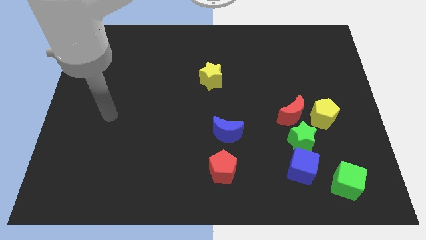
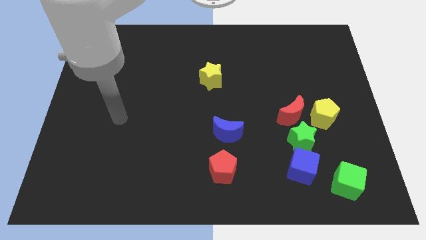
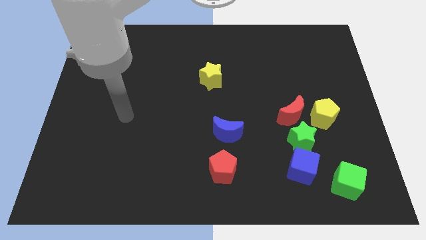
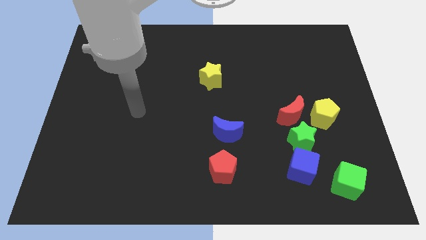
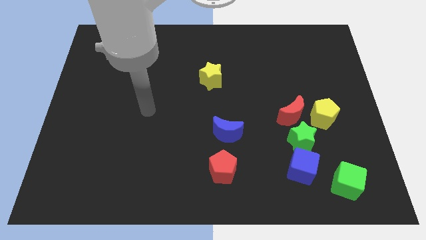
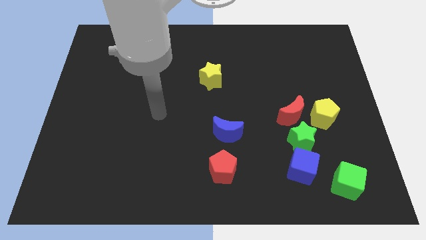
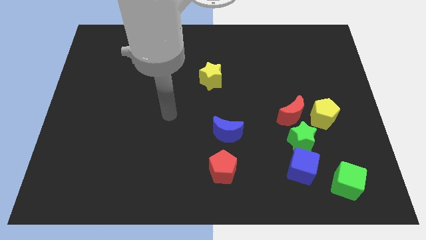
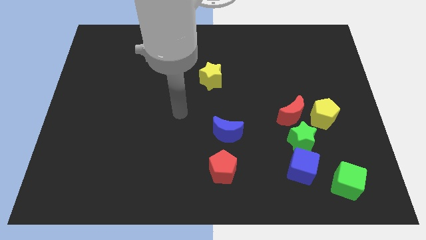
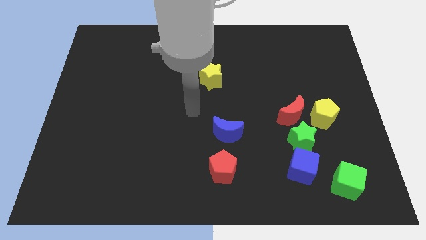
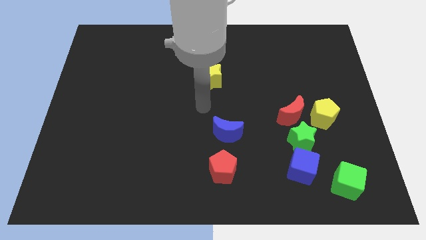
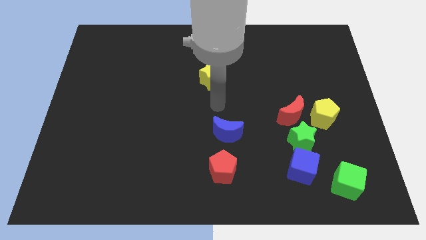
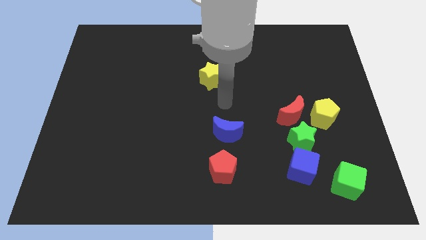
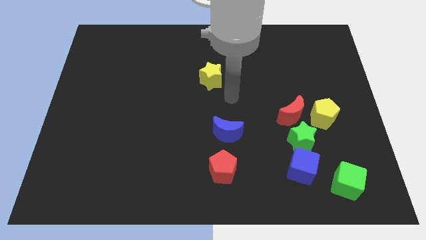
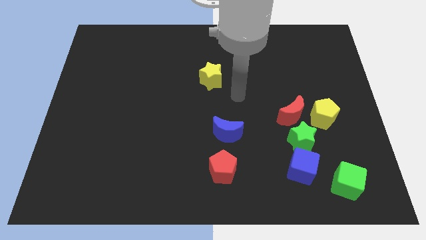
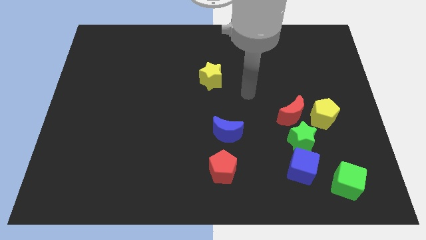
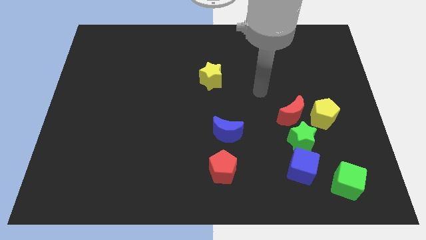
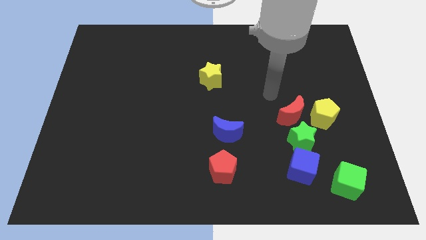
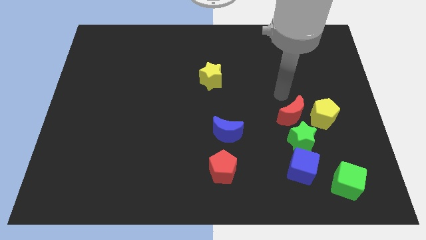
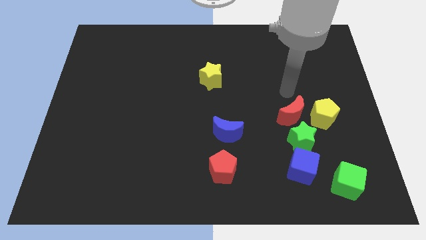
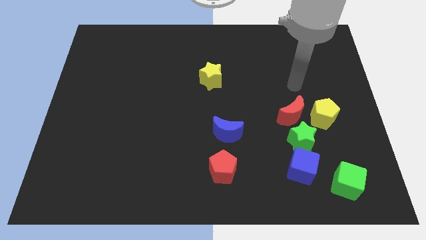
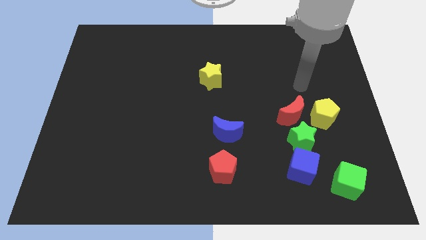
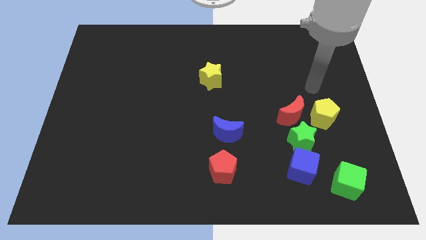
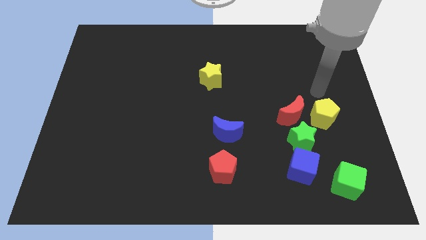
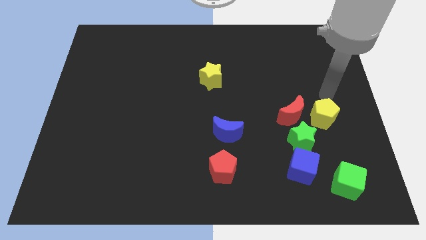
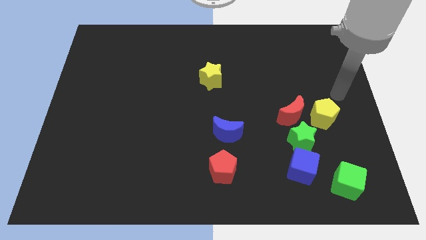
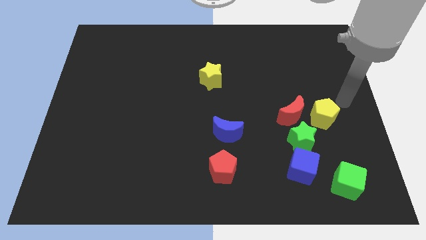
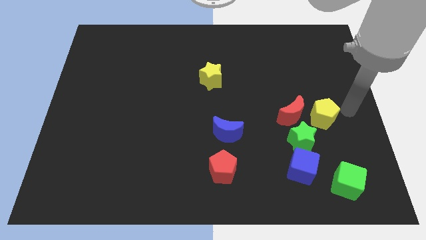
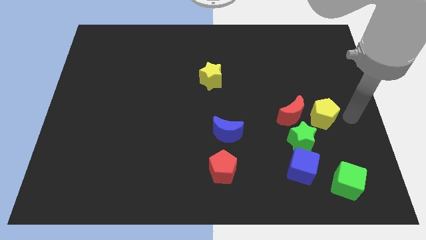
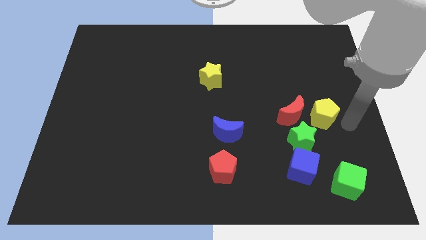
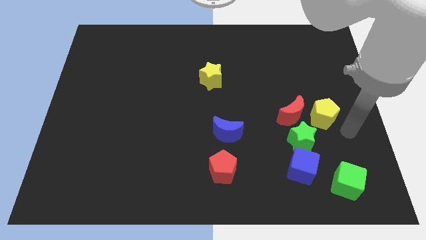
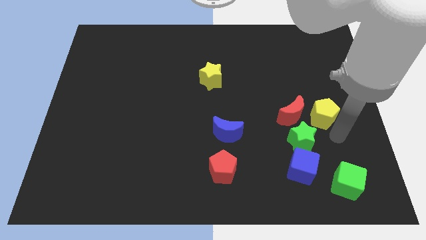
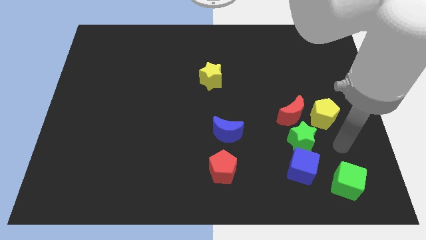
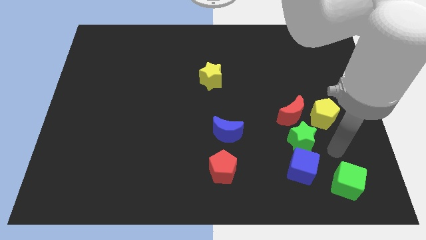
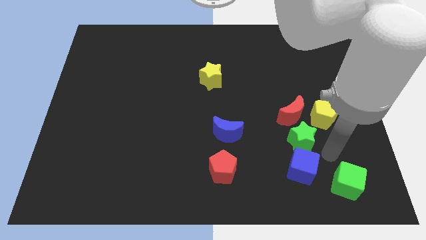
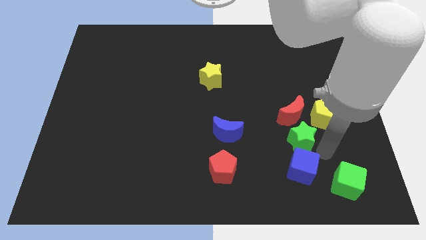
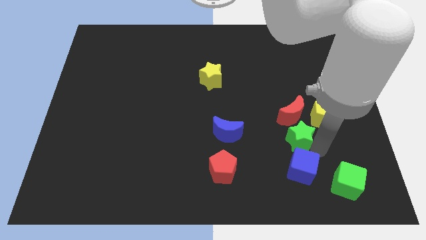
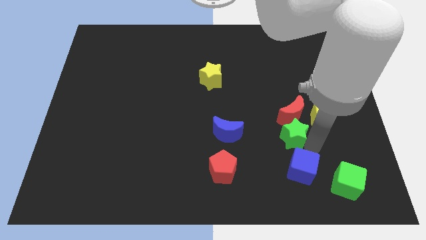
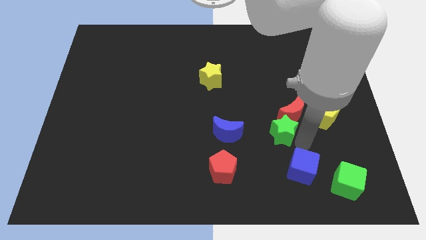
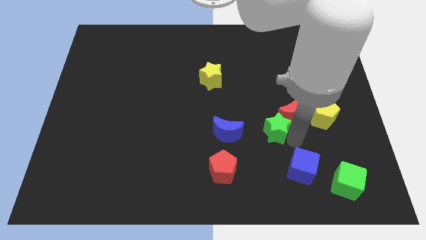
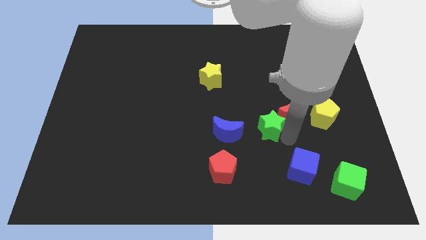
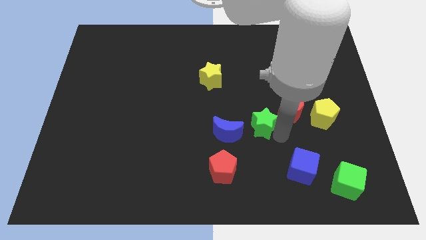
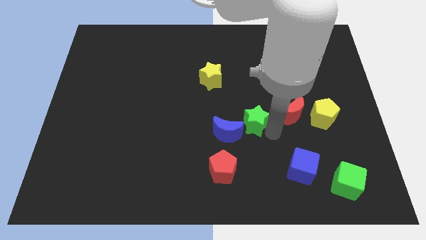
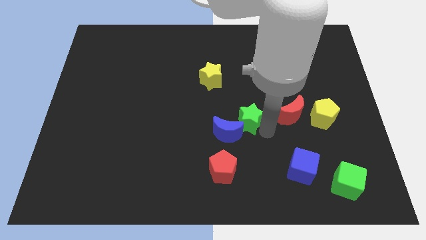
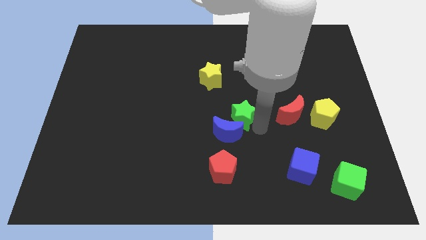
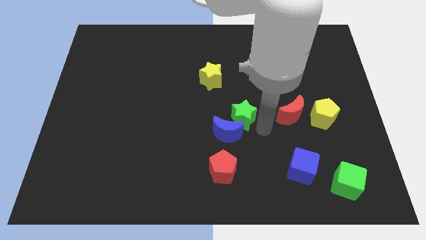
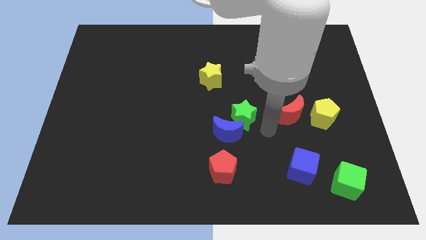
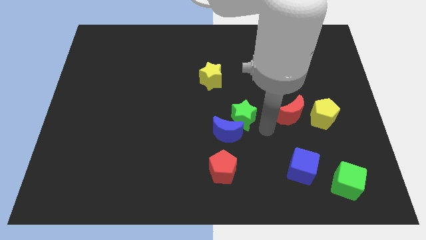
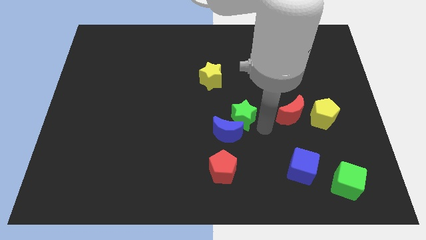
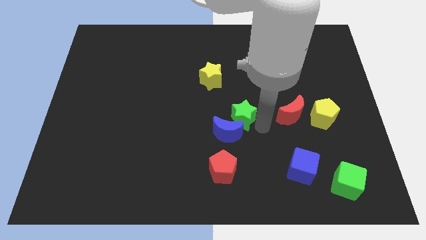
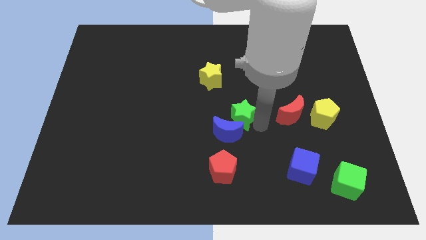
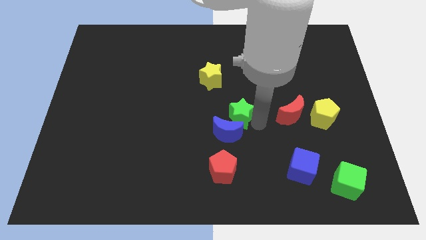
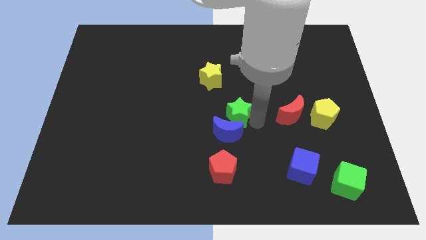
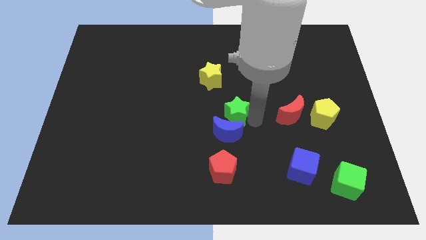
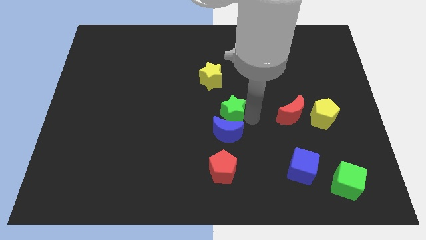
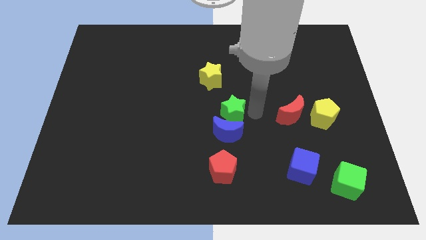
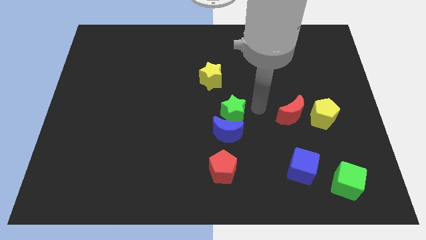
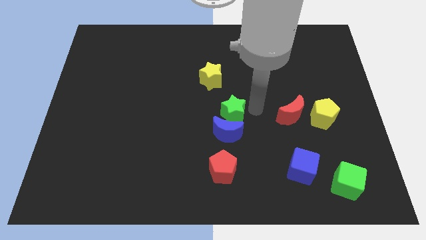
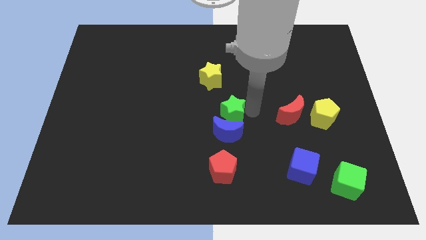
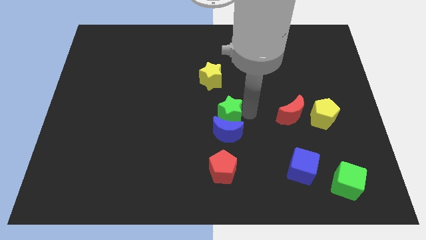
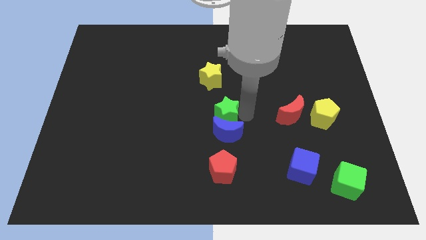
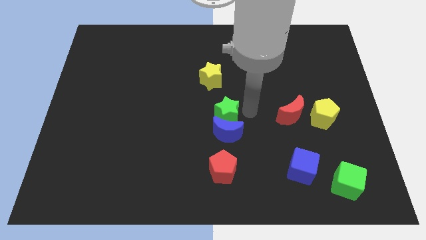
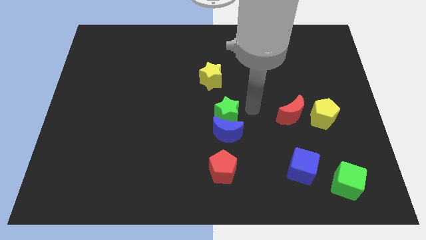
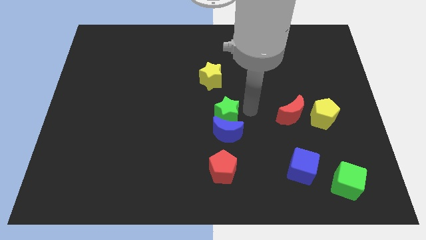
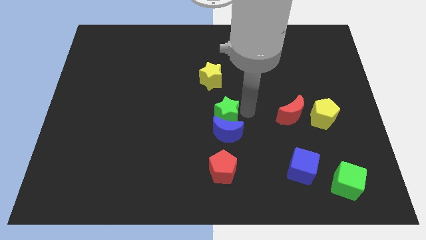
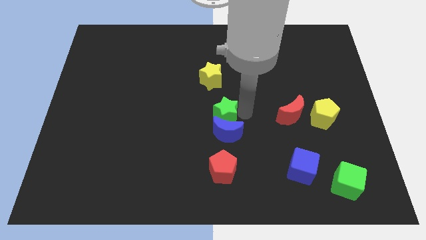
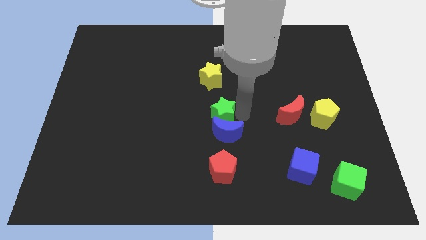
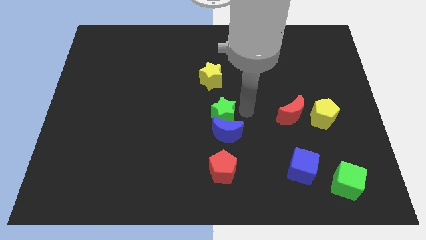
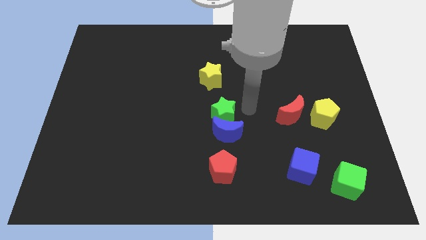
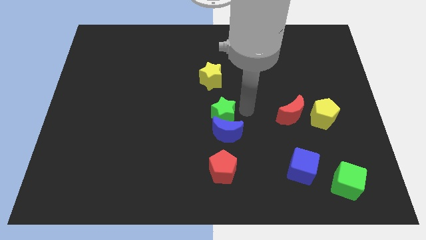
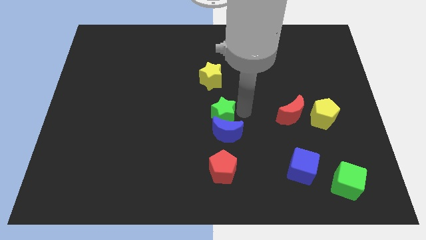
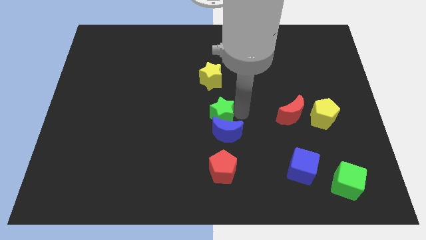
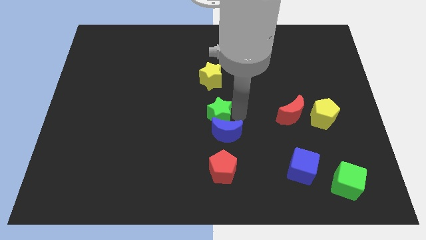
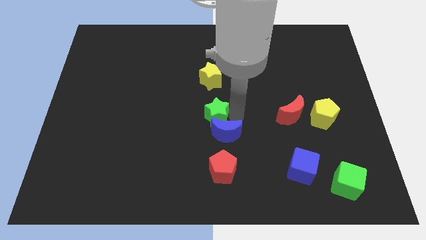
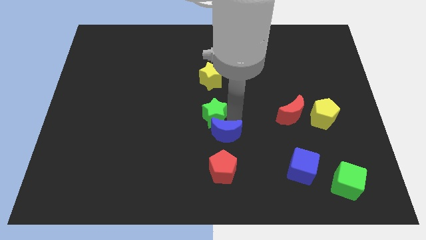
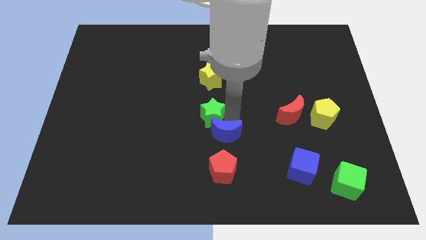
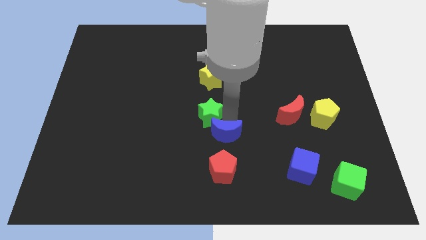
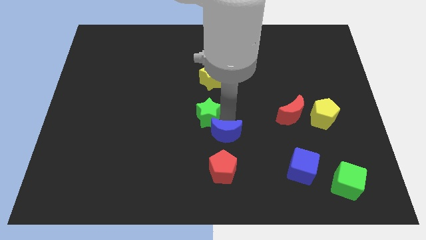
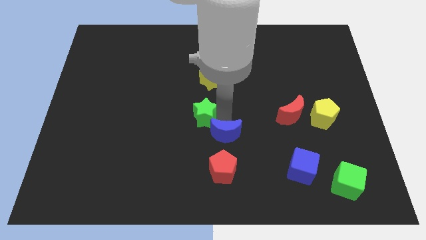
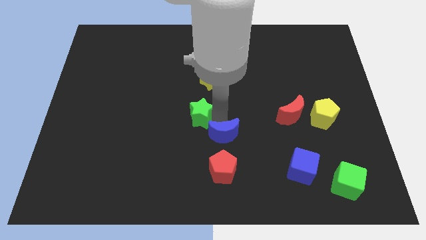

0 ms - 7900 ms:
slide the green star to the left

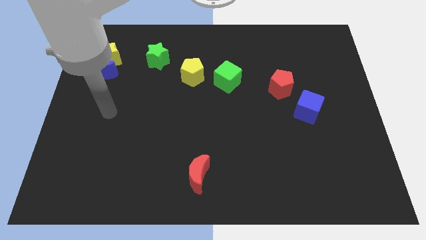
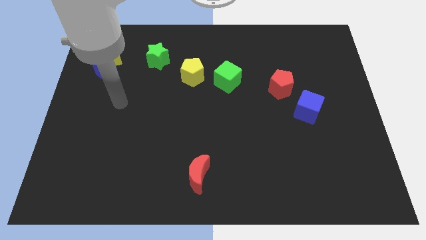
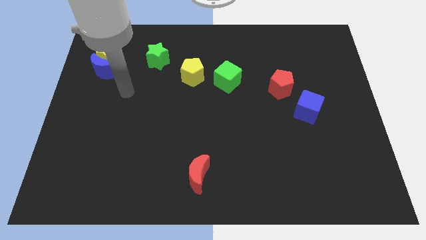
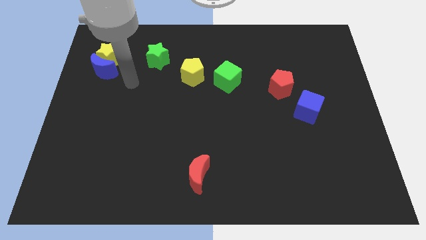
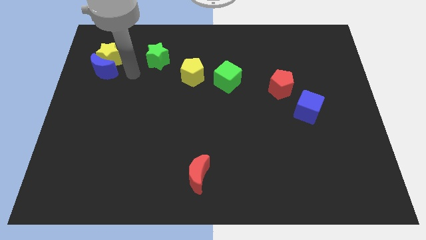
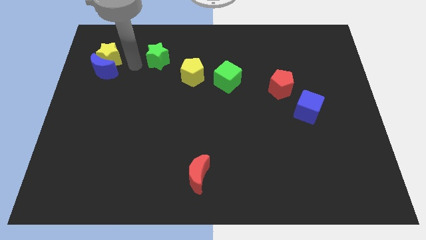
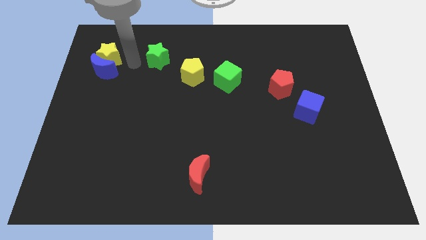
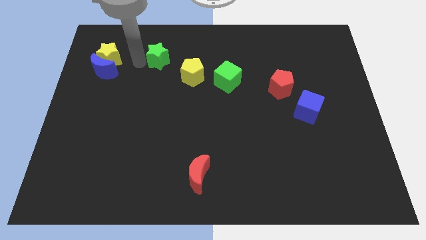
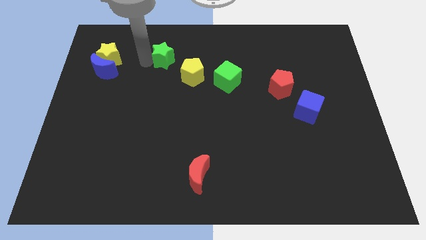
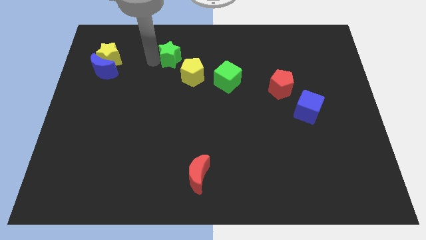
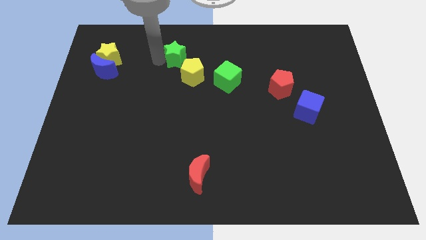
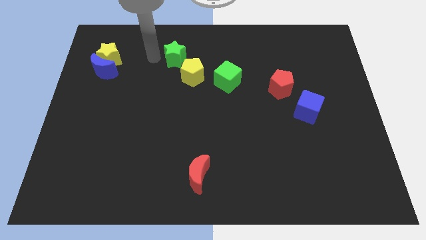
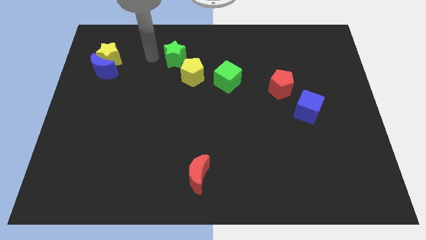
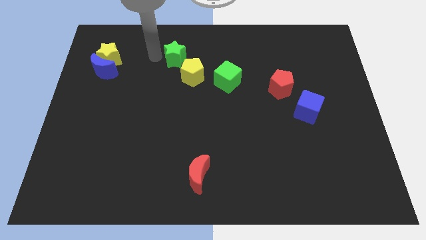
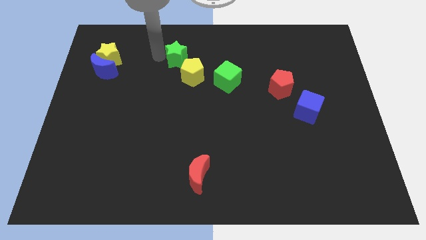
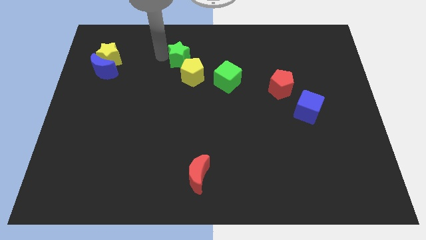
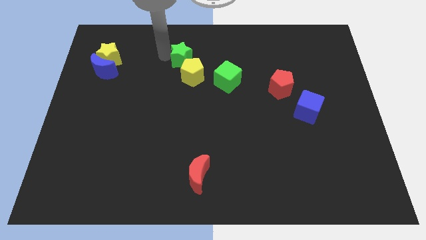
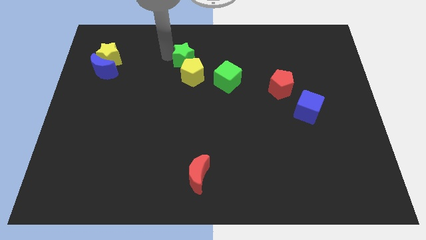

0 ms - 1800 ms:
slide the green star right a little bit
